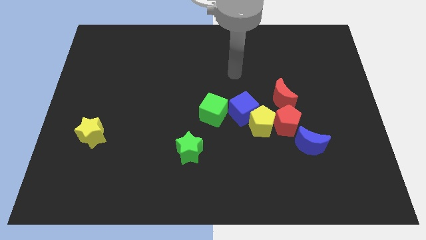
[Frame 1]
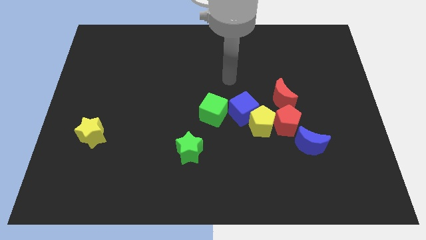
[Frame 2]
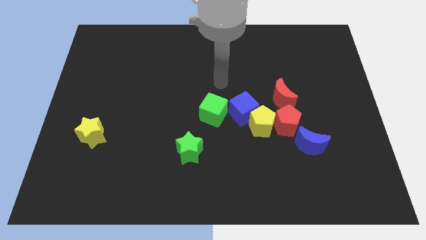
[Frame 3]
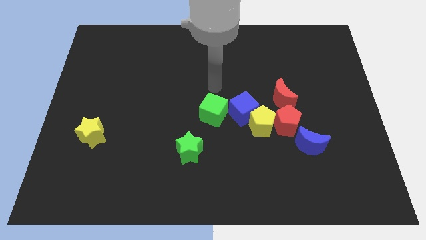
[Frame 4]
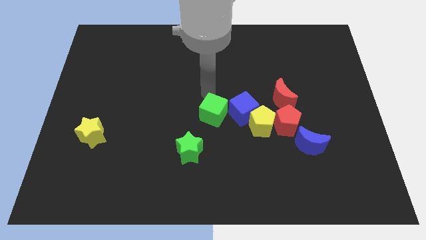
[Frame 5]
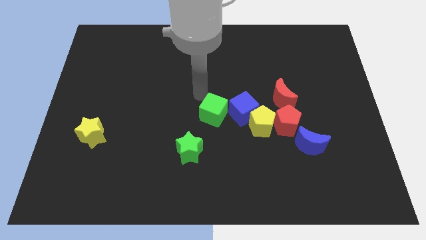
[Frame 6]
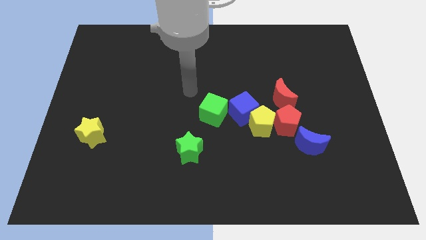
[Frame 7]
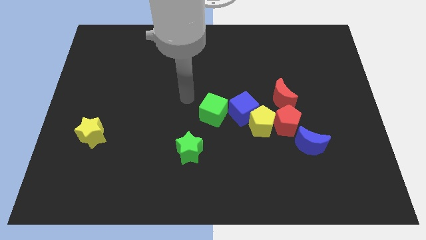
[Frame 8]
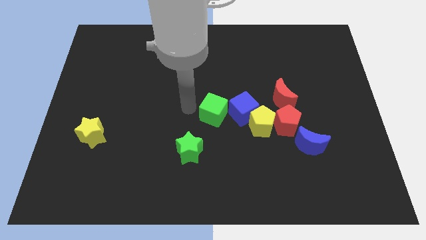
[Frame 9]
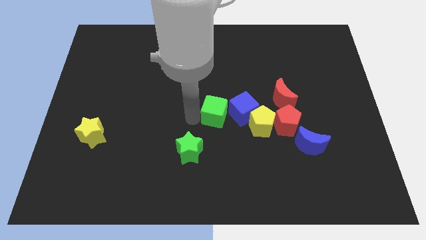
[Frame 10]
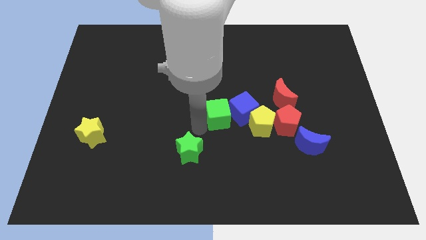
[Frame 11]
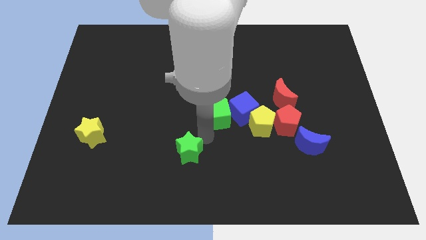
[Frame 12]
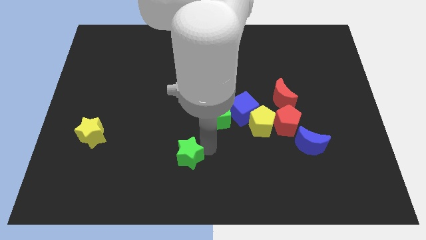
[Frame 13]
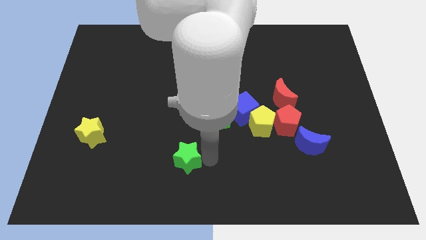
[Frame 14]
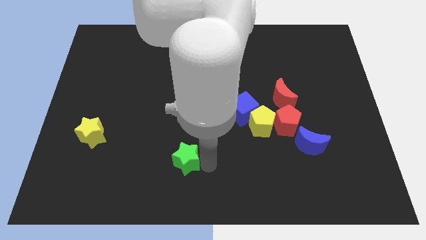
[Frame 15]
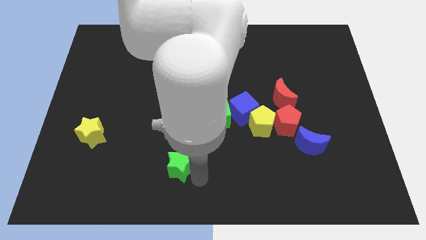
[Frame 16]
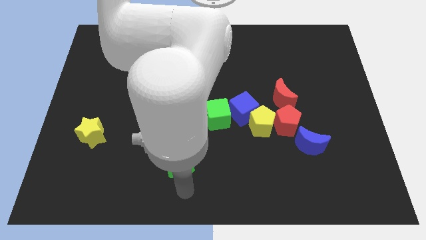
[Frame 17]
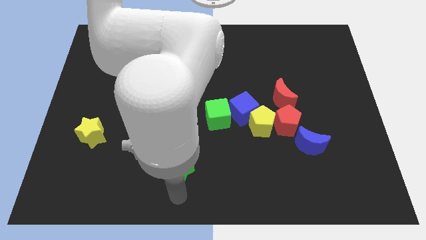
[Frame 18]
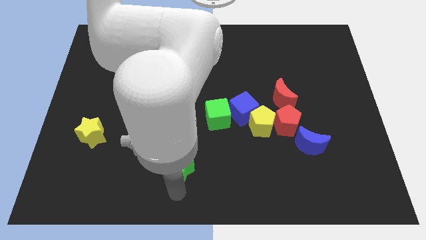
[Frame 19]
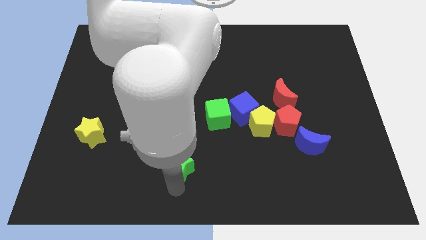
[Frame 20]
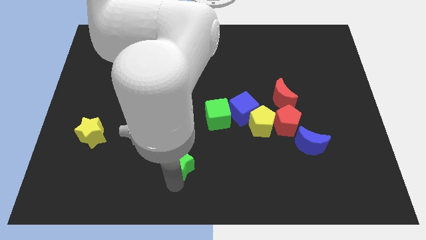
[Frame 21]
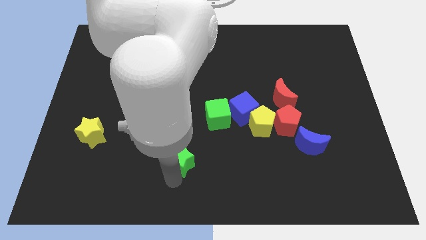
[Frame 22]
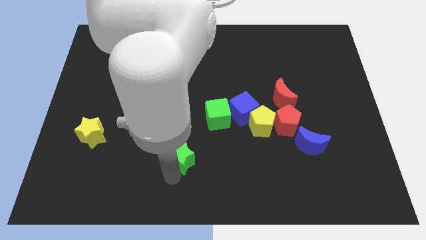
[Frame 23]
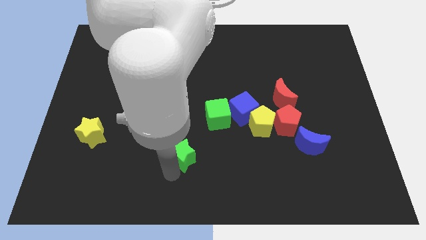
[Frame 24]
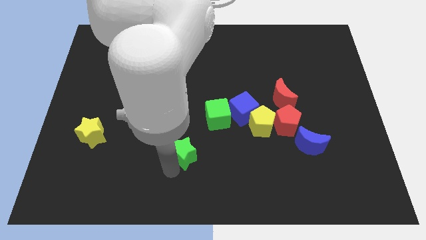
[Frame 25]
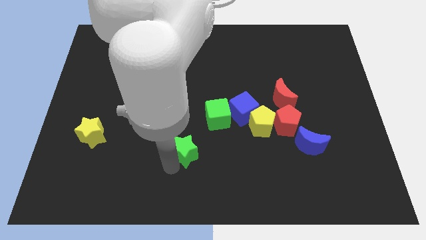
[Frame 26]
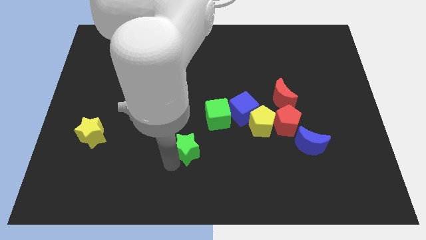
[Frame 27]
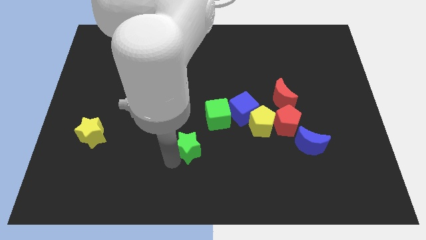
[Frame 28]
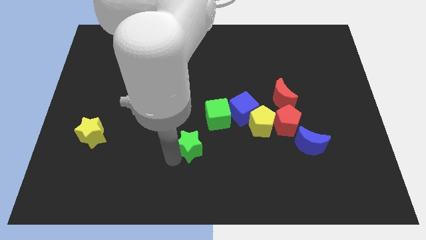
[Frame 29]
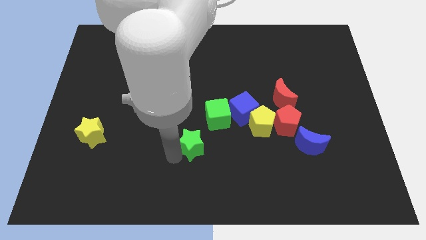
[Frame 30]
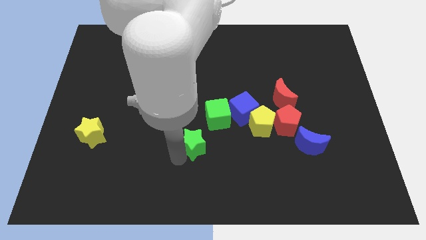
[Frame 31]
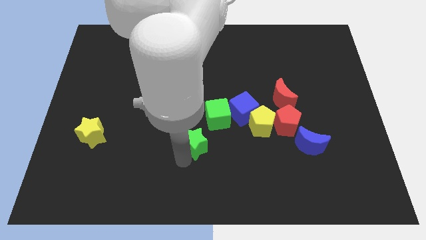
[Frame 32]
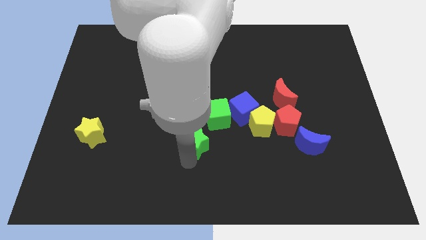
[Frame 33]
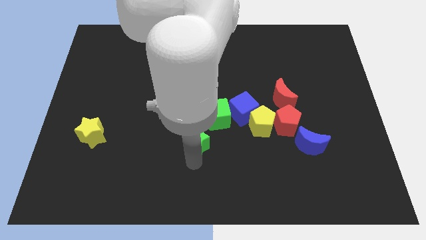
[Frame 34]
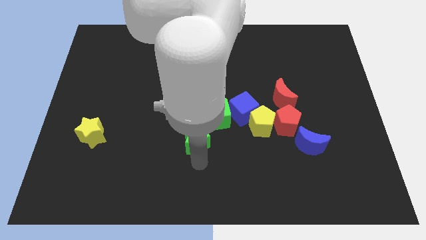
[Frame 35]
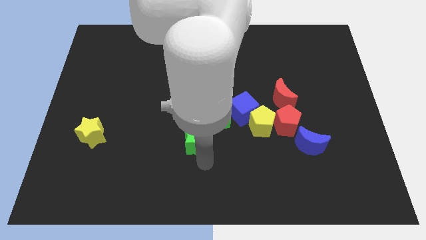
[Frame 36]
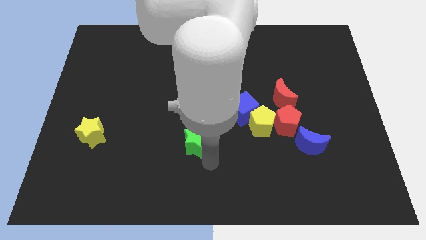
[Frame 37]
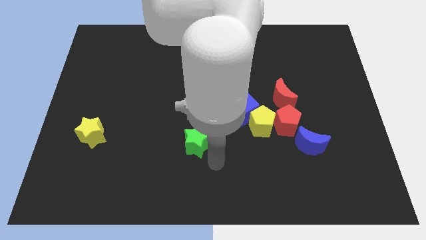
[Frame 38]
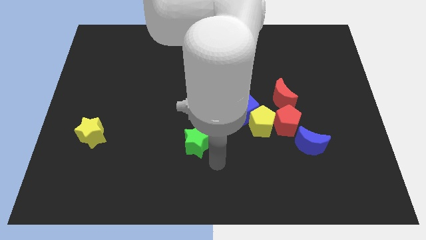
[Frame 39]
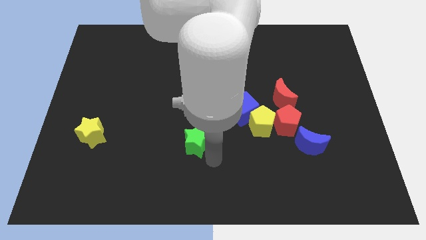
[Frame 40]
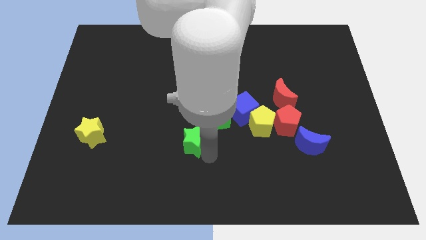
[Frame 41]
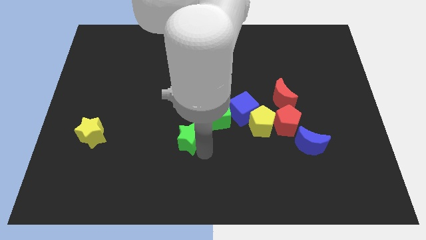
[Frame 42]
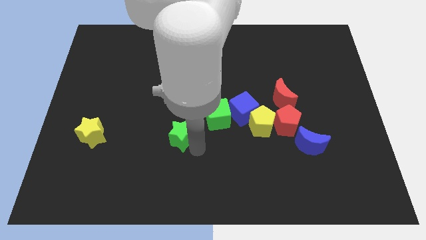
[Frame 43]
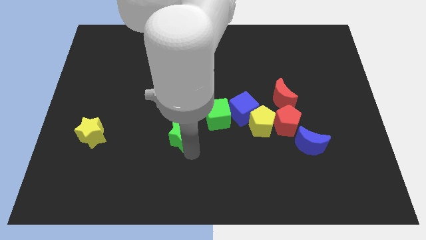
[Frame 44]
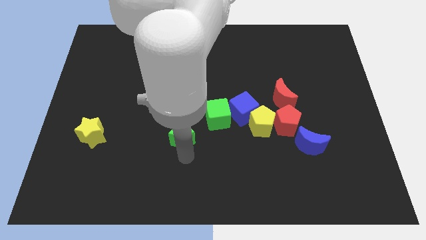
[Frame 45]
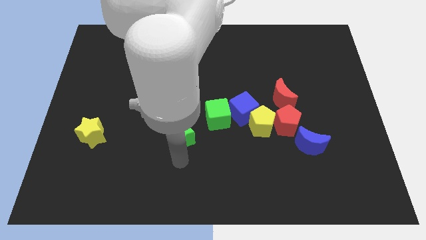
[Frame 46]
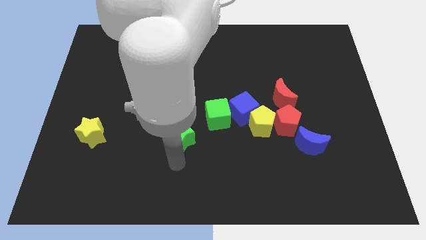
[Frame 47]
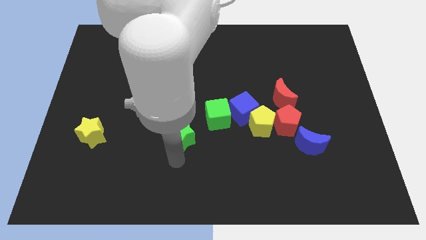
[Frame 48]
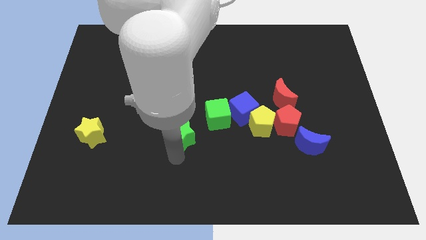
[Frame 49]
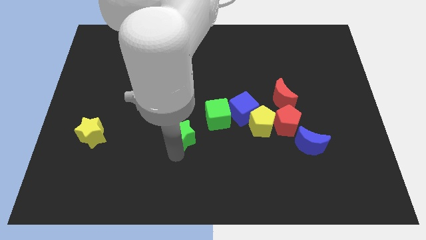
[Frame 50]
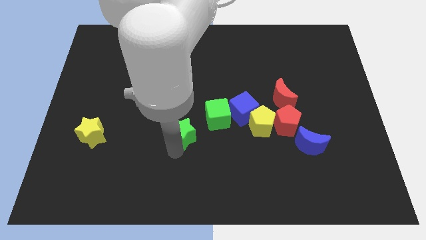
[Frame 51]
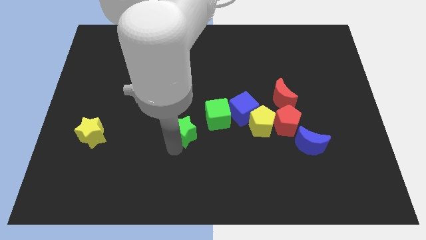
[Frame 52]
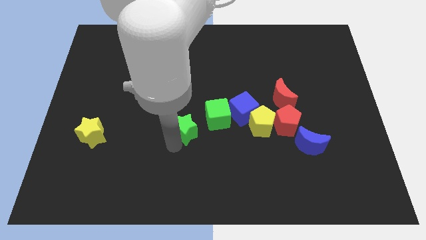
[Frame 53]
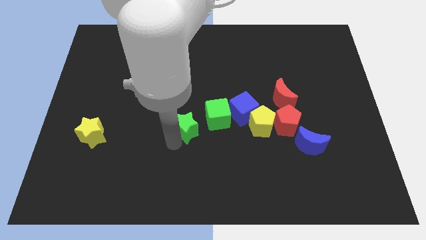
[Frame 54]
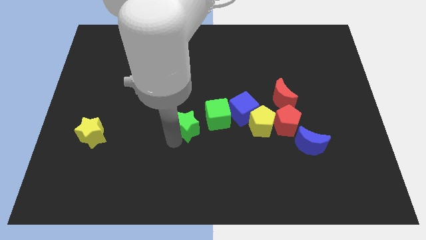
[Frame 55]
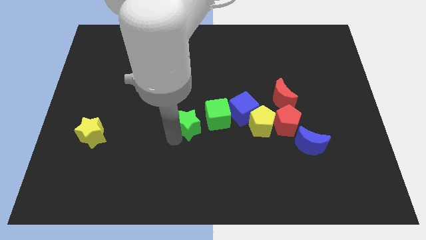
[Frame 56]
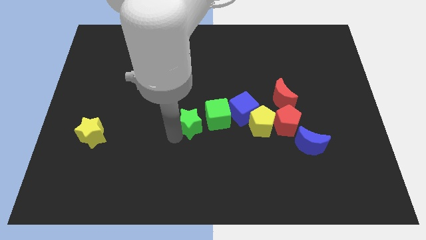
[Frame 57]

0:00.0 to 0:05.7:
move the green star up a little bit

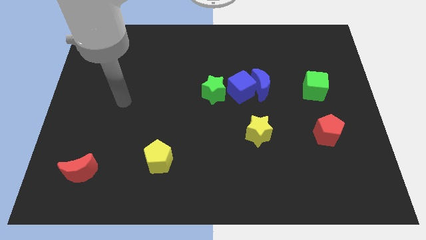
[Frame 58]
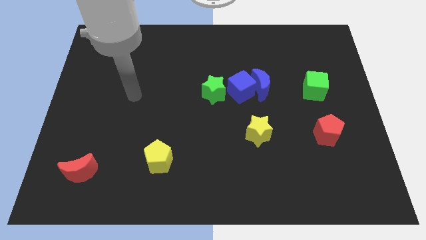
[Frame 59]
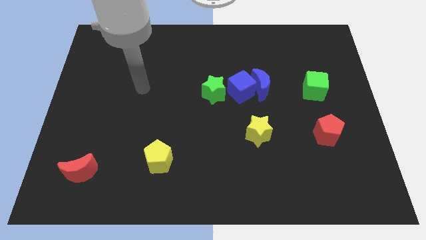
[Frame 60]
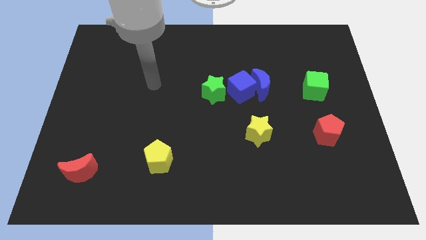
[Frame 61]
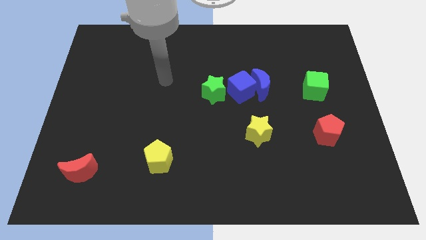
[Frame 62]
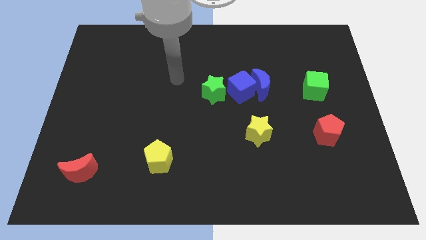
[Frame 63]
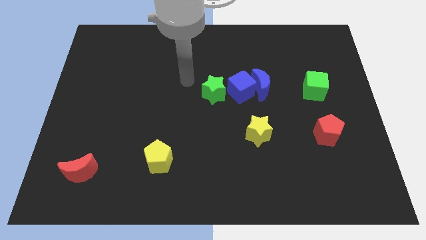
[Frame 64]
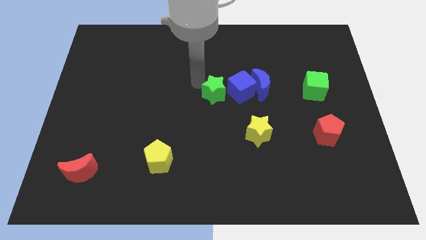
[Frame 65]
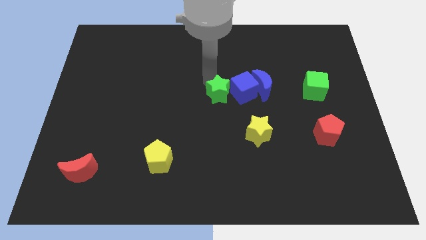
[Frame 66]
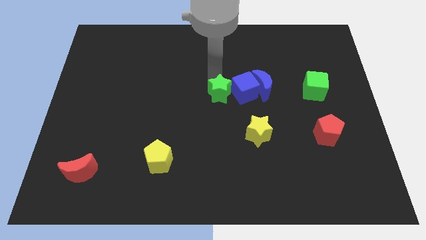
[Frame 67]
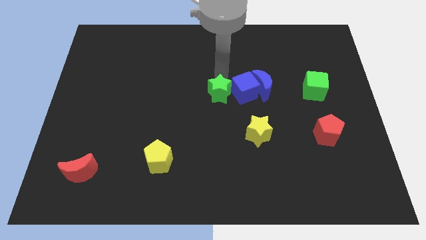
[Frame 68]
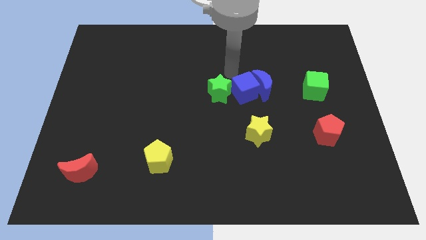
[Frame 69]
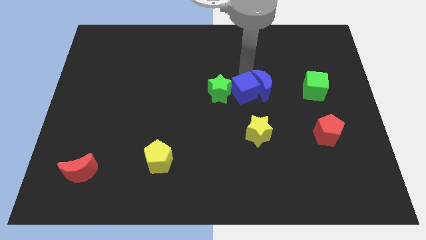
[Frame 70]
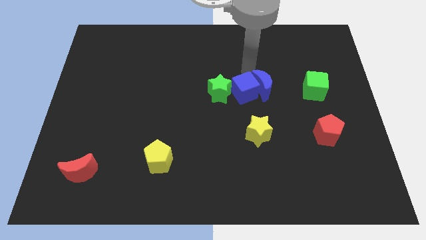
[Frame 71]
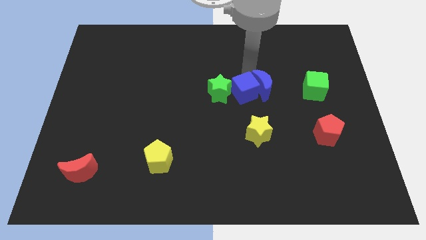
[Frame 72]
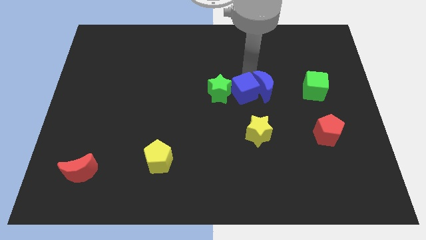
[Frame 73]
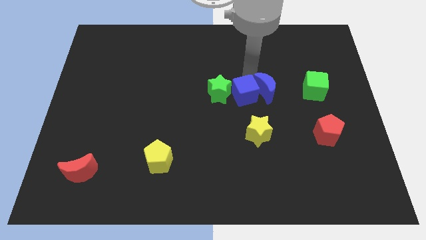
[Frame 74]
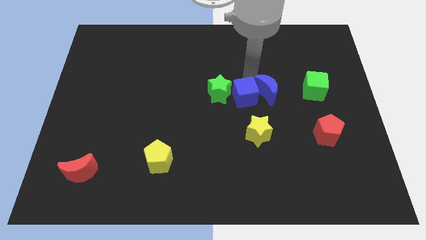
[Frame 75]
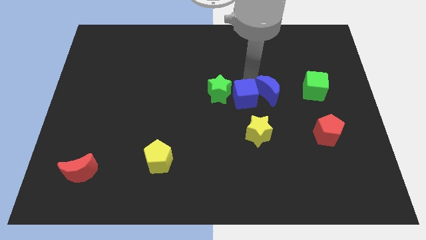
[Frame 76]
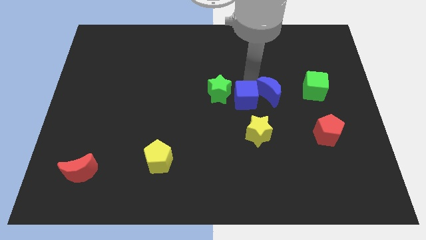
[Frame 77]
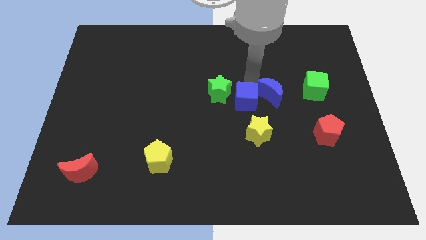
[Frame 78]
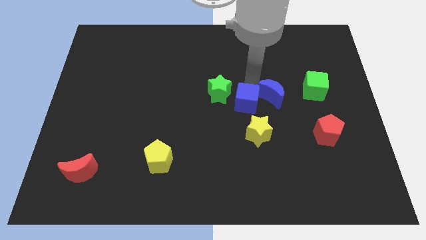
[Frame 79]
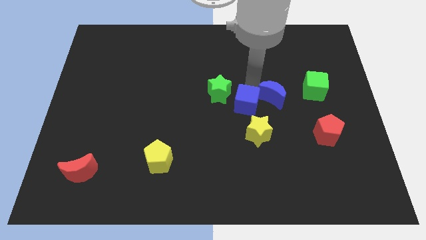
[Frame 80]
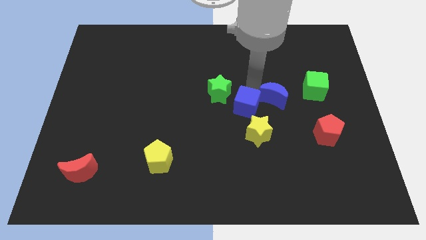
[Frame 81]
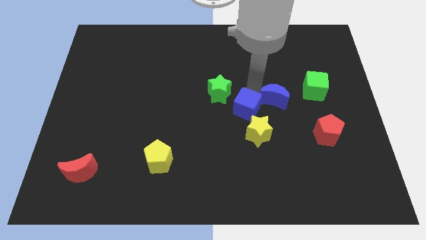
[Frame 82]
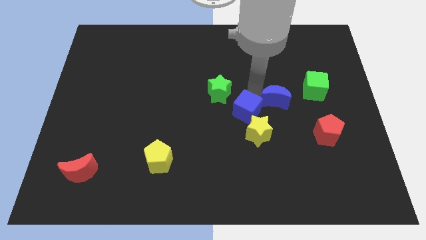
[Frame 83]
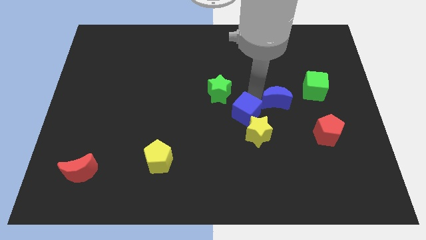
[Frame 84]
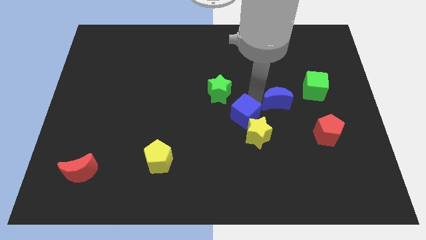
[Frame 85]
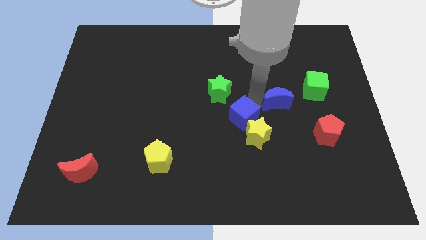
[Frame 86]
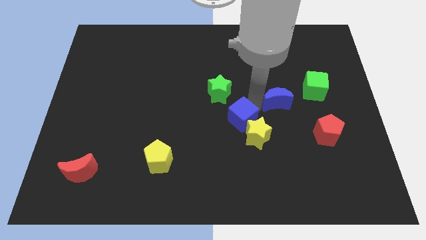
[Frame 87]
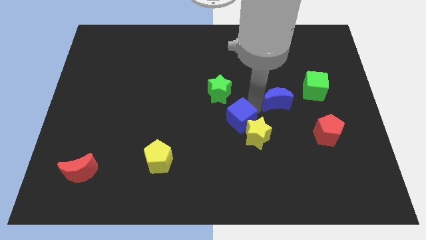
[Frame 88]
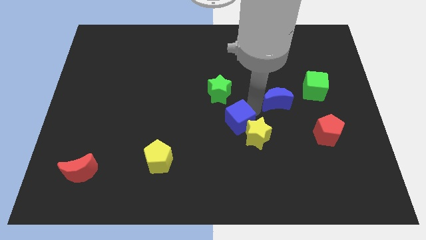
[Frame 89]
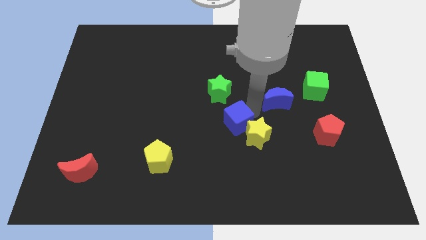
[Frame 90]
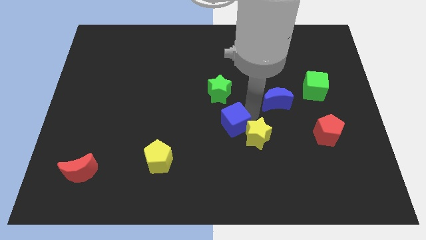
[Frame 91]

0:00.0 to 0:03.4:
slightly move the blue cube diagonally downwards and to the left
